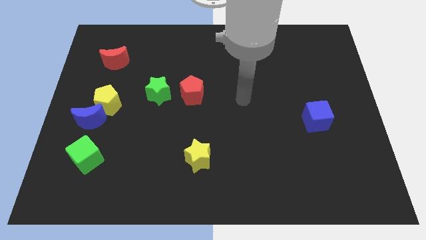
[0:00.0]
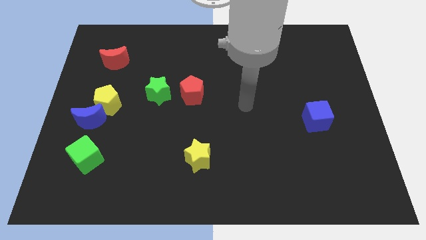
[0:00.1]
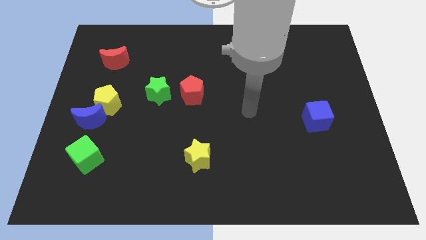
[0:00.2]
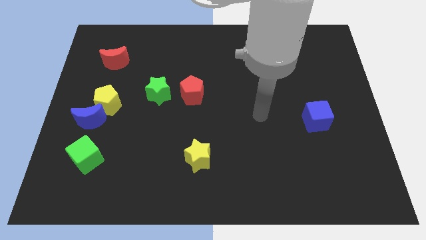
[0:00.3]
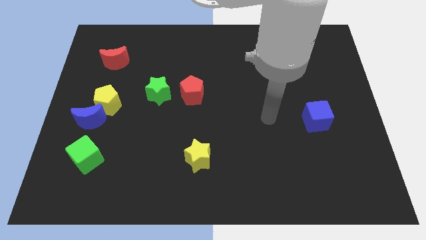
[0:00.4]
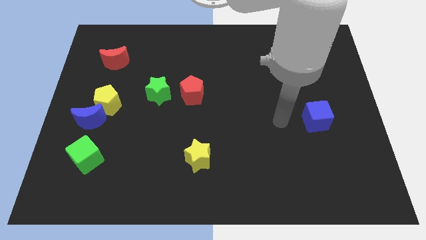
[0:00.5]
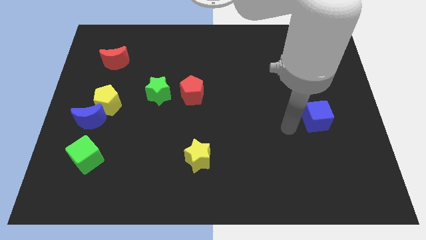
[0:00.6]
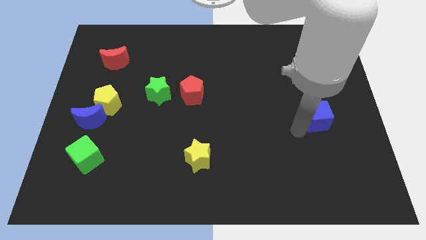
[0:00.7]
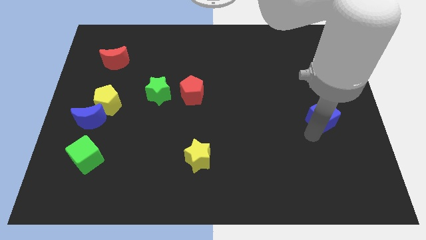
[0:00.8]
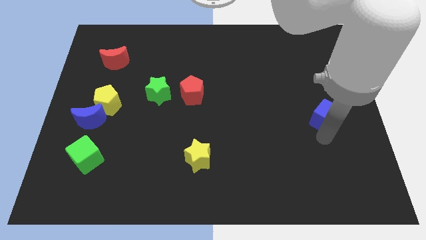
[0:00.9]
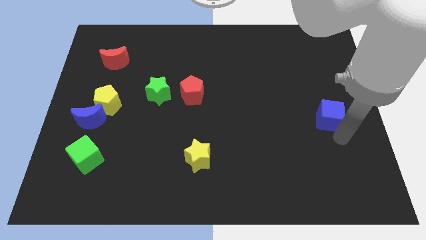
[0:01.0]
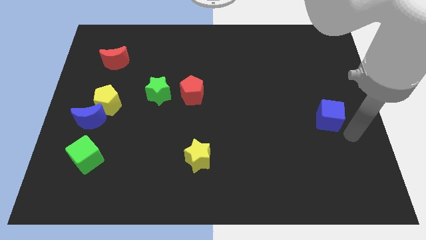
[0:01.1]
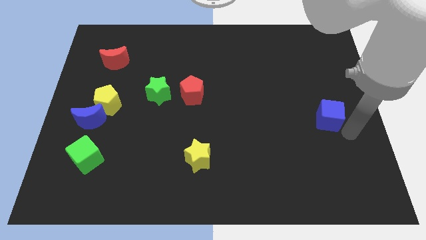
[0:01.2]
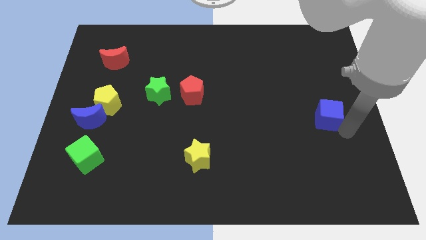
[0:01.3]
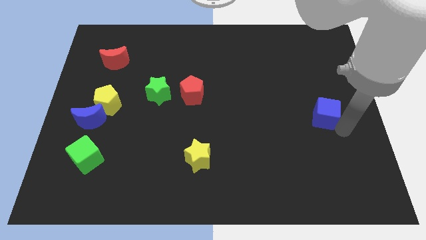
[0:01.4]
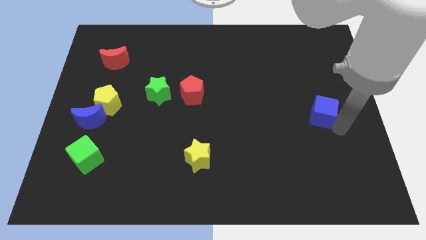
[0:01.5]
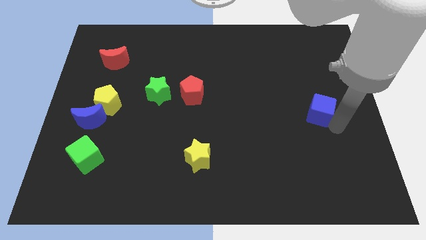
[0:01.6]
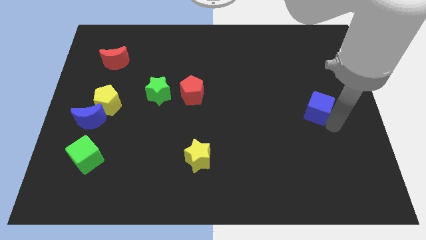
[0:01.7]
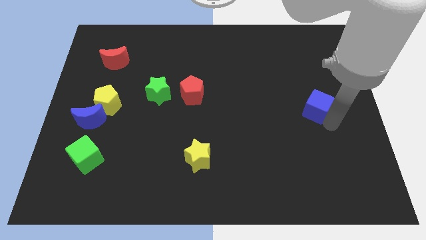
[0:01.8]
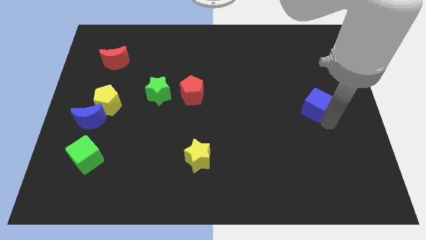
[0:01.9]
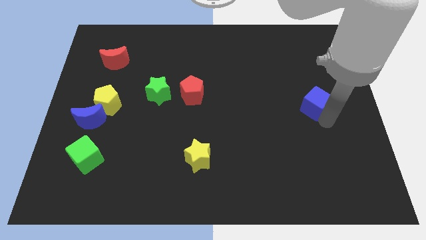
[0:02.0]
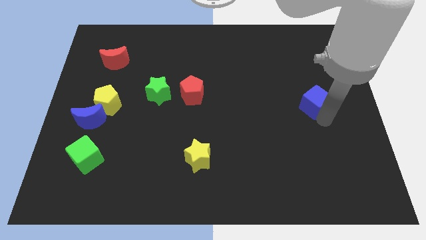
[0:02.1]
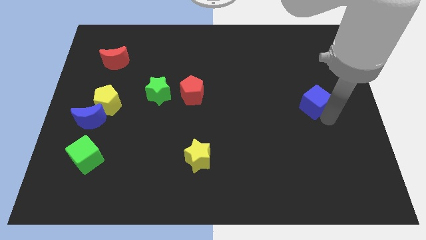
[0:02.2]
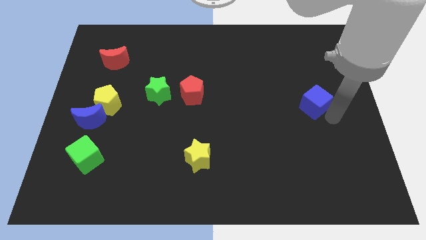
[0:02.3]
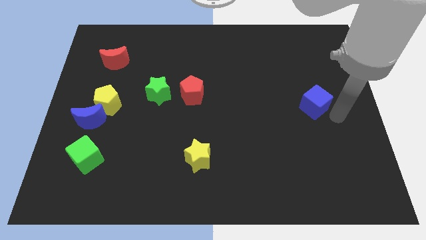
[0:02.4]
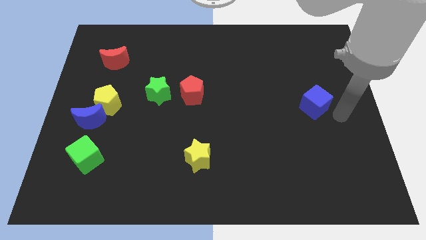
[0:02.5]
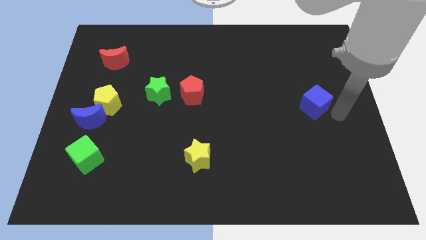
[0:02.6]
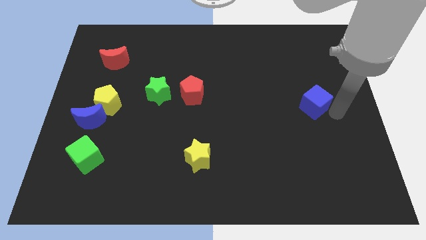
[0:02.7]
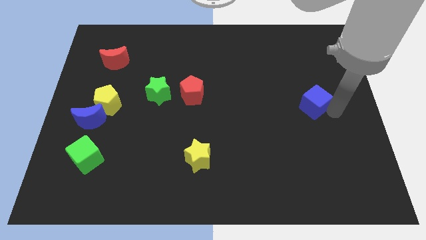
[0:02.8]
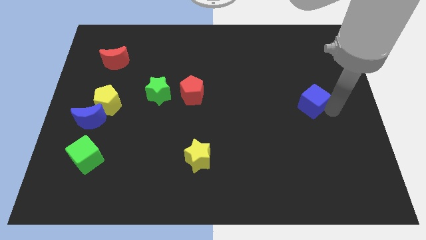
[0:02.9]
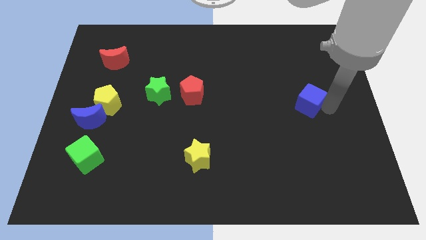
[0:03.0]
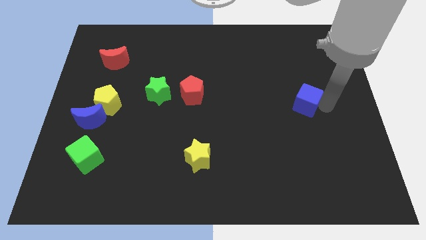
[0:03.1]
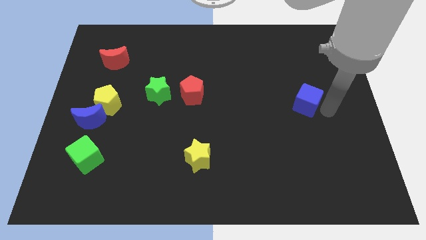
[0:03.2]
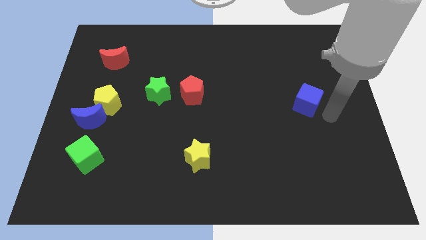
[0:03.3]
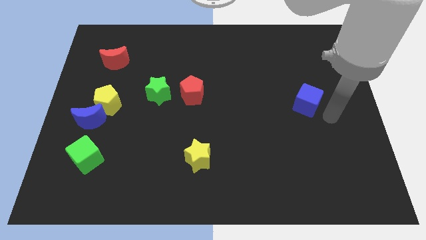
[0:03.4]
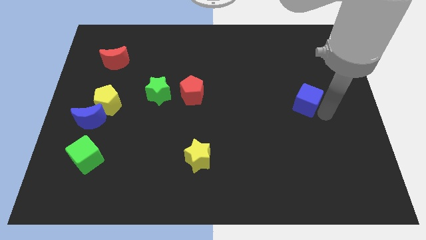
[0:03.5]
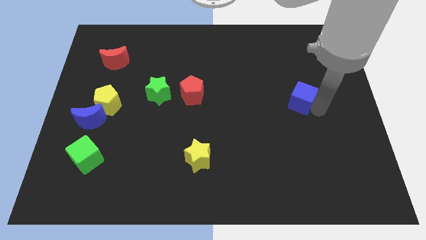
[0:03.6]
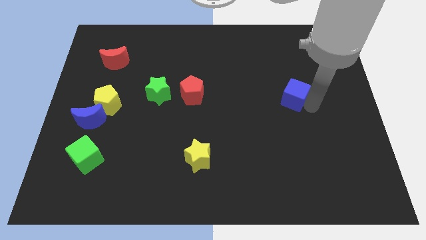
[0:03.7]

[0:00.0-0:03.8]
slightly slide the blue cube upwards and then left

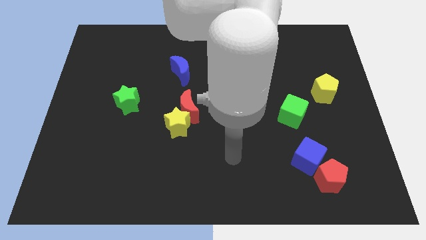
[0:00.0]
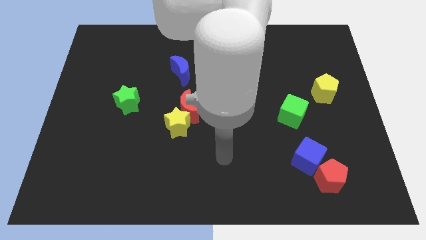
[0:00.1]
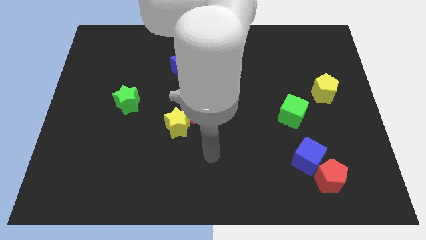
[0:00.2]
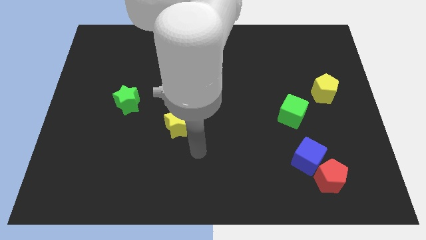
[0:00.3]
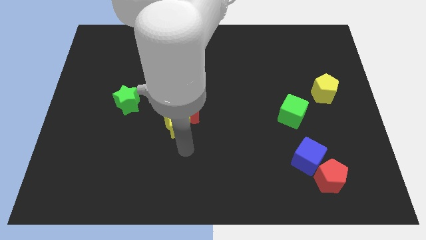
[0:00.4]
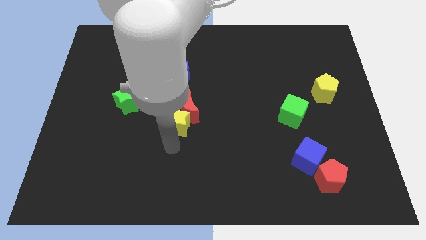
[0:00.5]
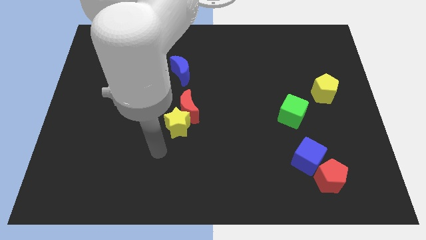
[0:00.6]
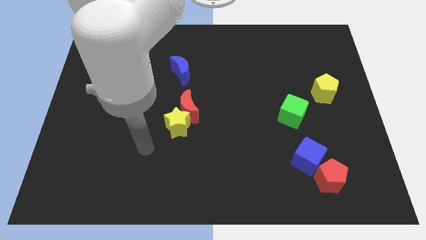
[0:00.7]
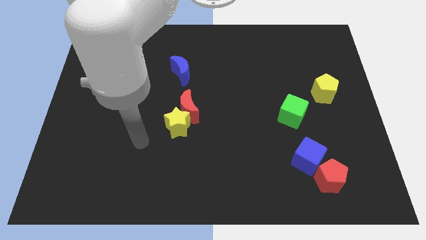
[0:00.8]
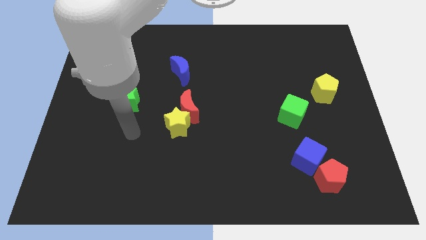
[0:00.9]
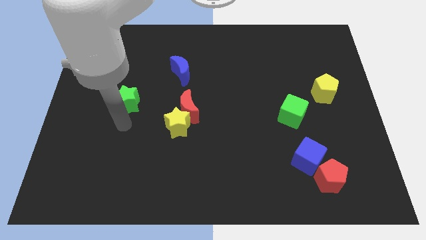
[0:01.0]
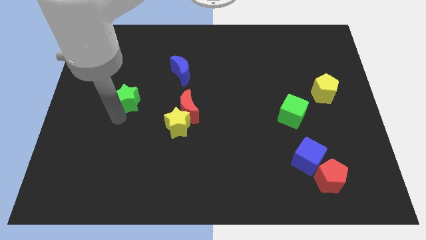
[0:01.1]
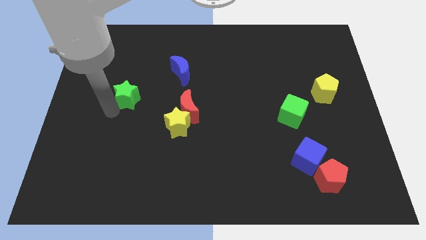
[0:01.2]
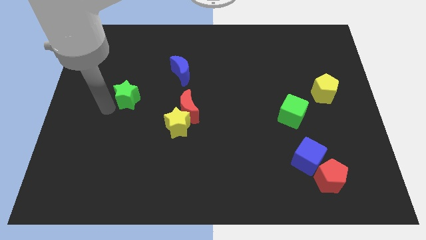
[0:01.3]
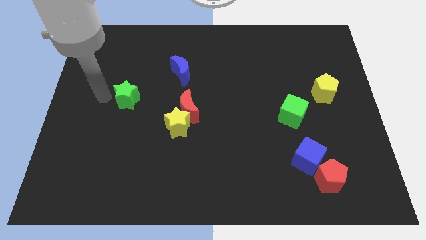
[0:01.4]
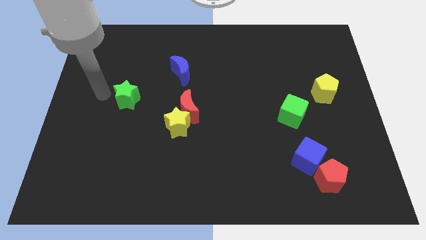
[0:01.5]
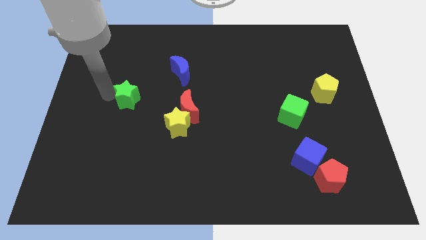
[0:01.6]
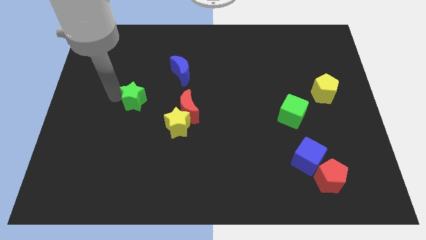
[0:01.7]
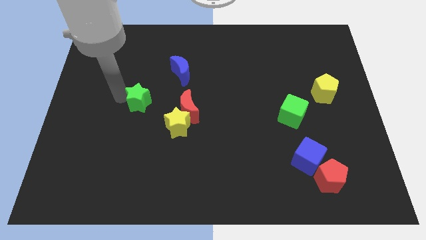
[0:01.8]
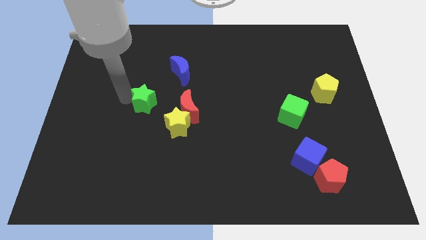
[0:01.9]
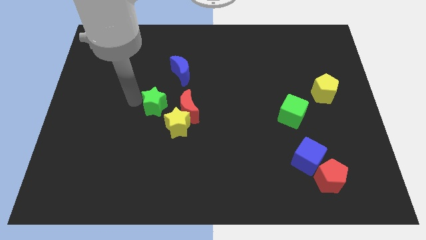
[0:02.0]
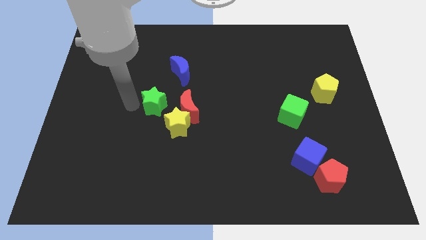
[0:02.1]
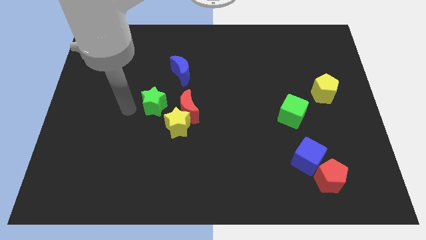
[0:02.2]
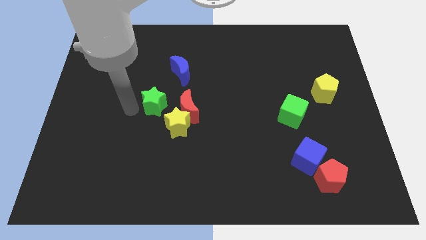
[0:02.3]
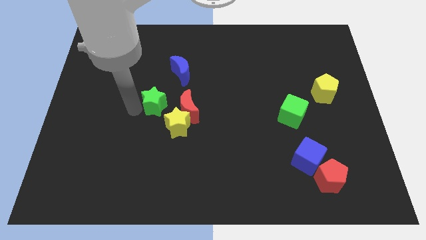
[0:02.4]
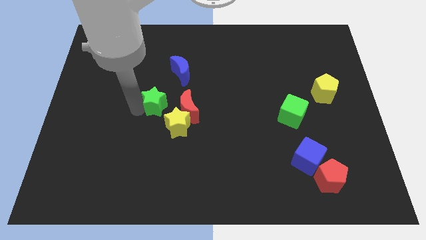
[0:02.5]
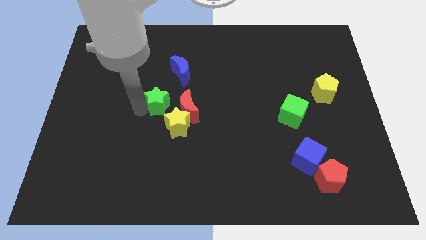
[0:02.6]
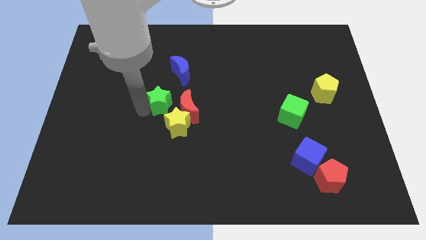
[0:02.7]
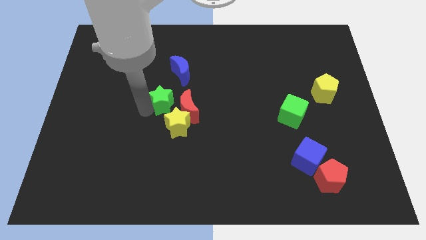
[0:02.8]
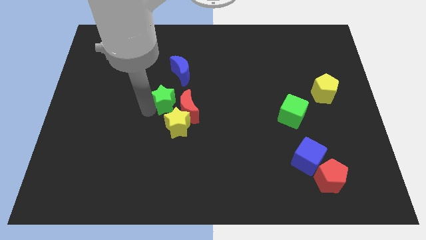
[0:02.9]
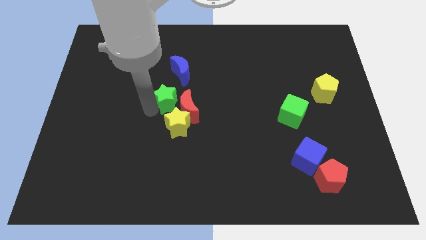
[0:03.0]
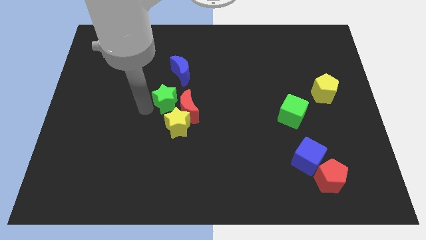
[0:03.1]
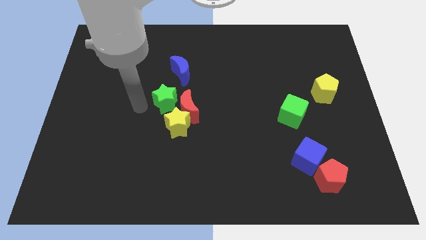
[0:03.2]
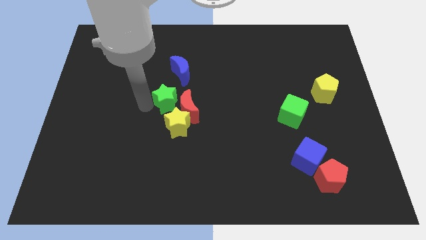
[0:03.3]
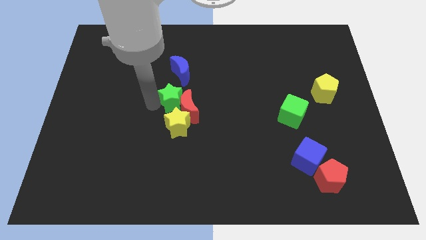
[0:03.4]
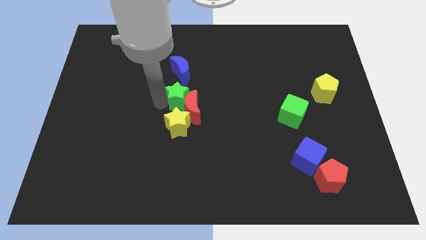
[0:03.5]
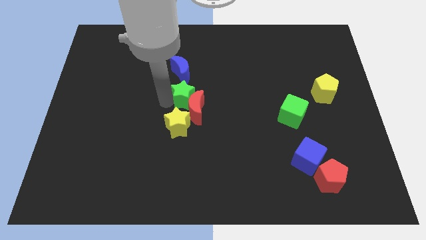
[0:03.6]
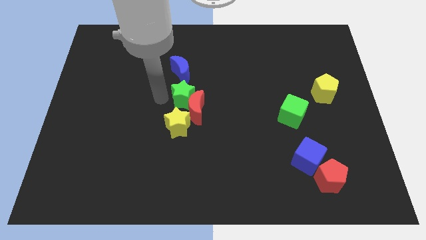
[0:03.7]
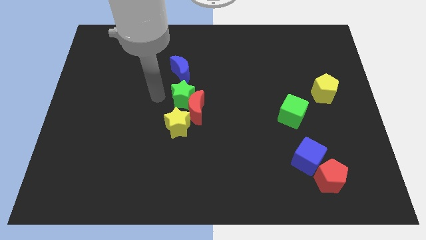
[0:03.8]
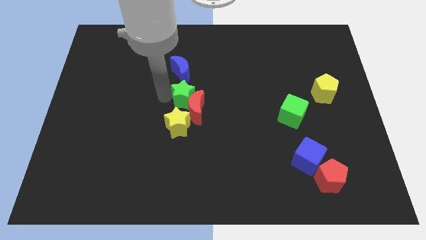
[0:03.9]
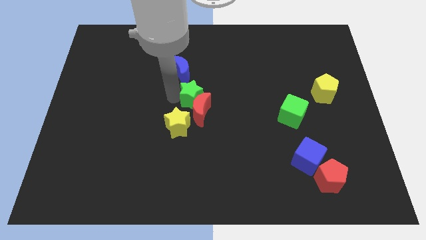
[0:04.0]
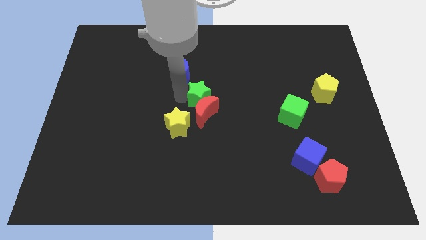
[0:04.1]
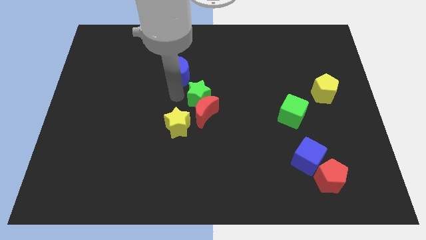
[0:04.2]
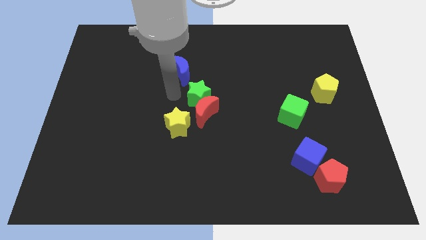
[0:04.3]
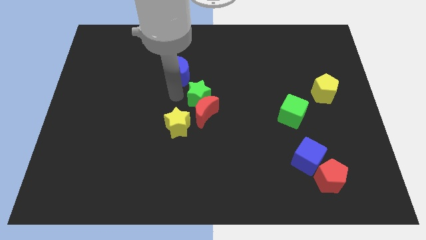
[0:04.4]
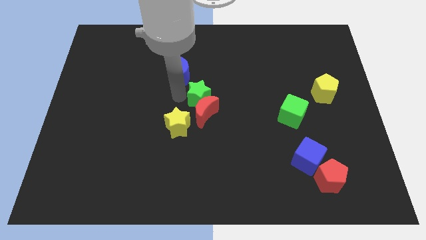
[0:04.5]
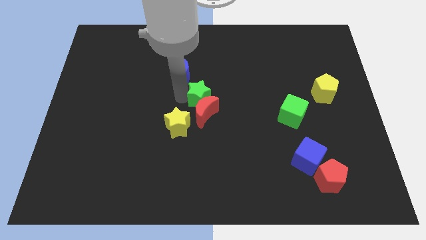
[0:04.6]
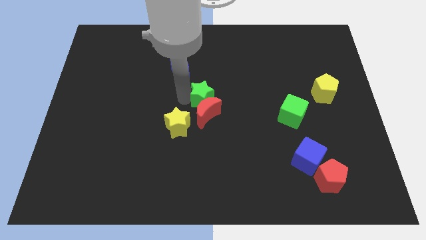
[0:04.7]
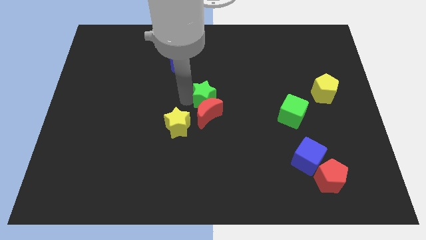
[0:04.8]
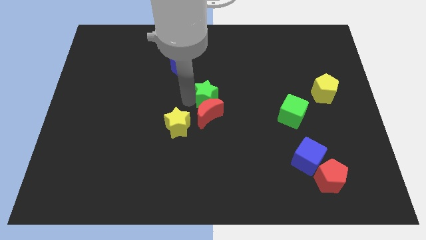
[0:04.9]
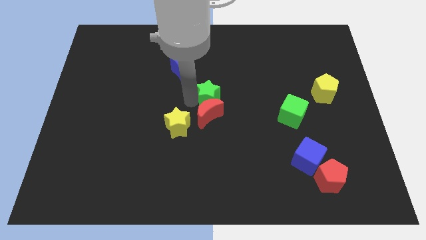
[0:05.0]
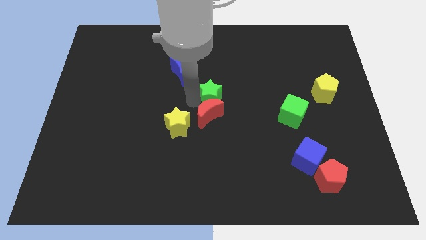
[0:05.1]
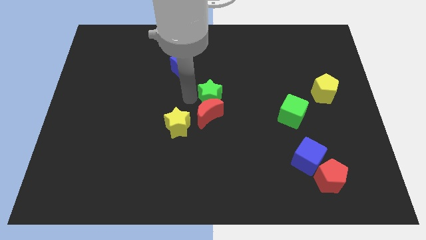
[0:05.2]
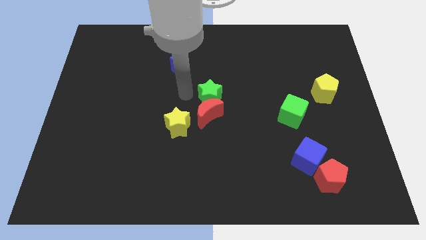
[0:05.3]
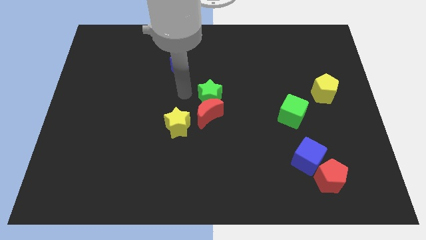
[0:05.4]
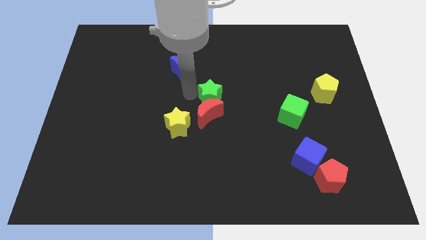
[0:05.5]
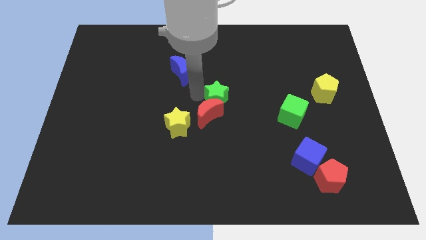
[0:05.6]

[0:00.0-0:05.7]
move the green star right
